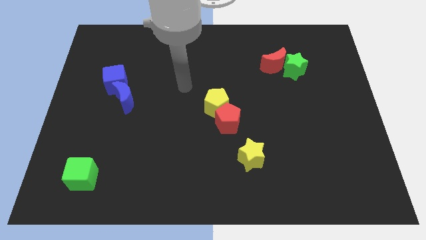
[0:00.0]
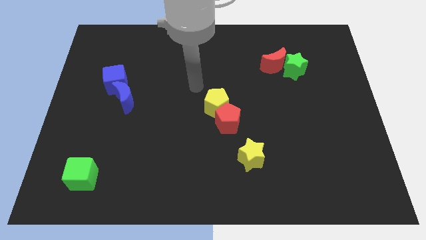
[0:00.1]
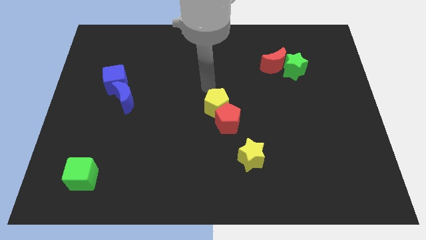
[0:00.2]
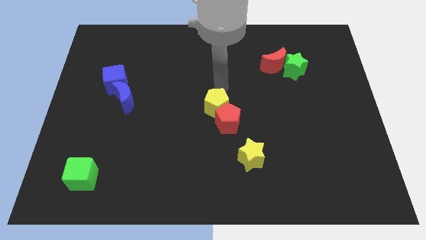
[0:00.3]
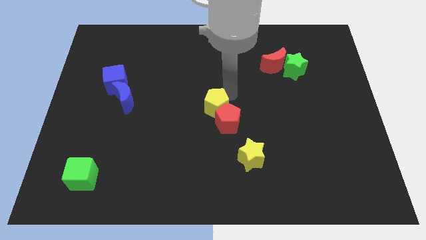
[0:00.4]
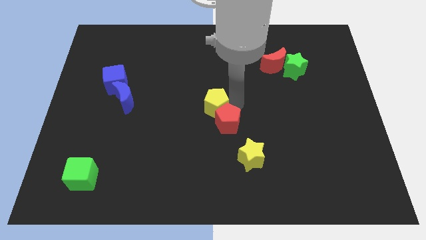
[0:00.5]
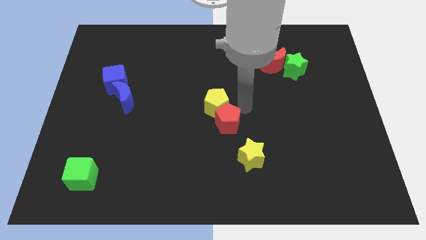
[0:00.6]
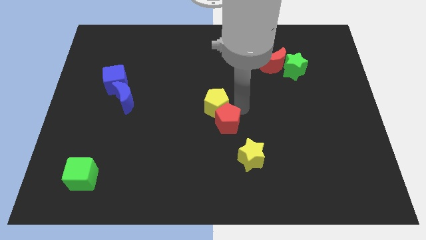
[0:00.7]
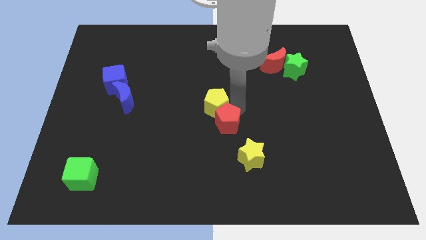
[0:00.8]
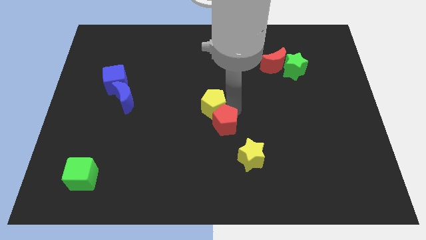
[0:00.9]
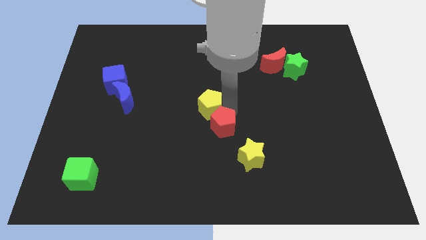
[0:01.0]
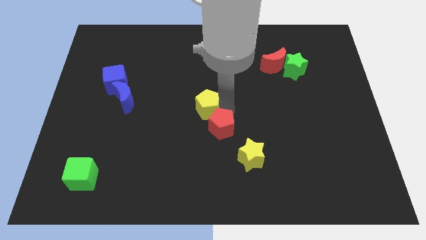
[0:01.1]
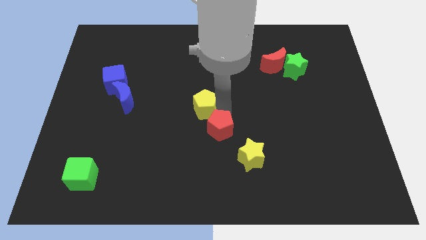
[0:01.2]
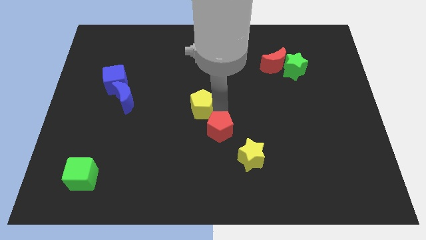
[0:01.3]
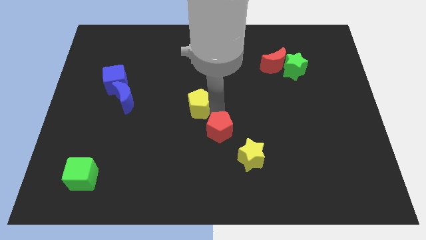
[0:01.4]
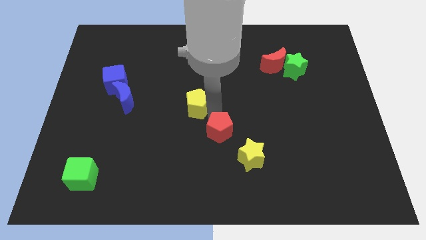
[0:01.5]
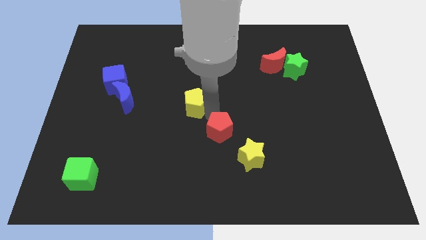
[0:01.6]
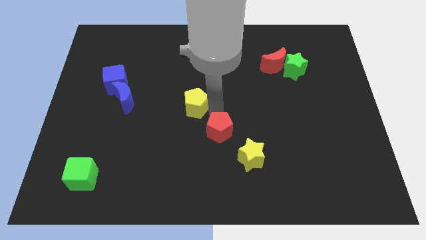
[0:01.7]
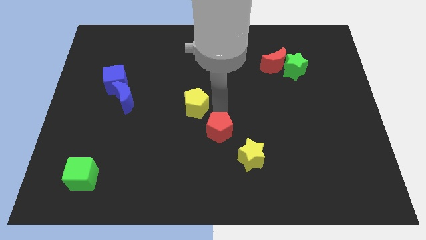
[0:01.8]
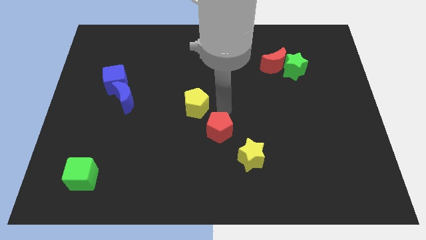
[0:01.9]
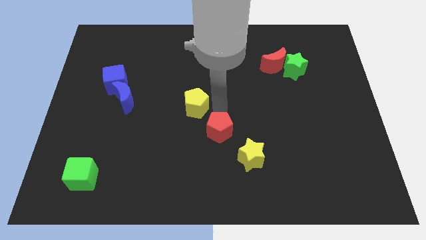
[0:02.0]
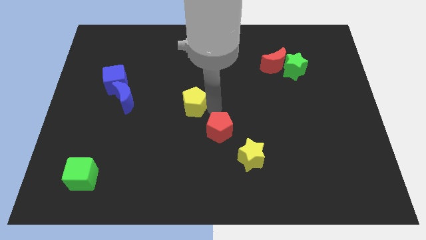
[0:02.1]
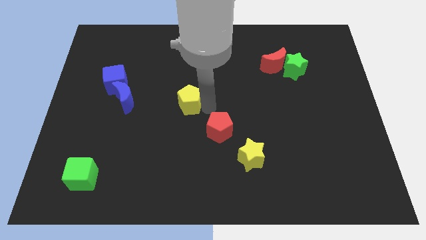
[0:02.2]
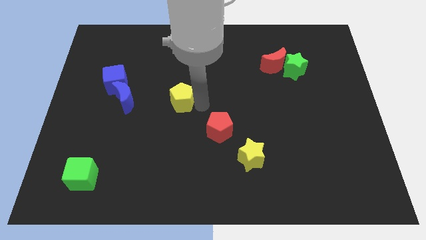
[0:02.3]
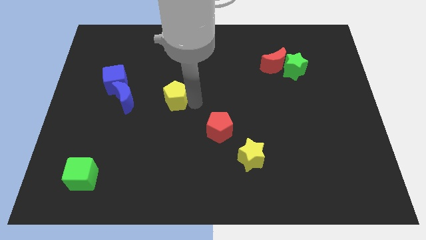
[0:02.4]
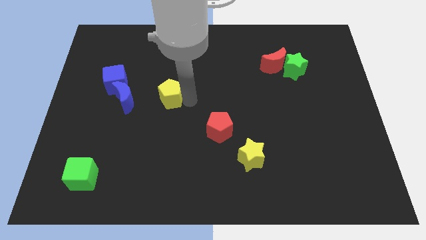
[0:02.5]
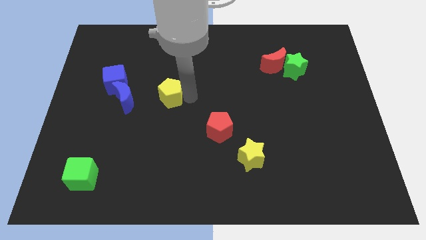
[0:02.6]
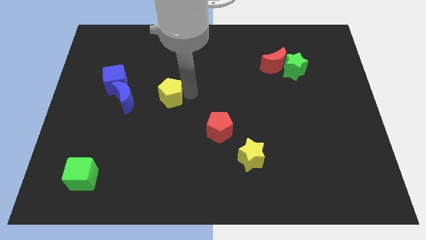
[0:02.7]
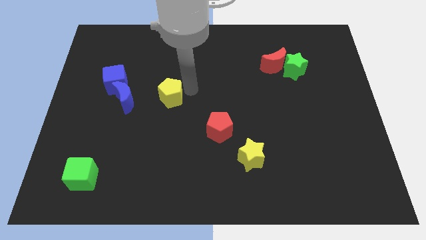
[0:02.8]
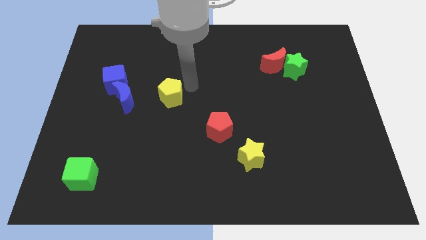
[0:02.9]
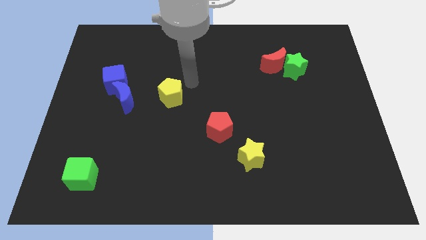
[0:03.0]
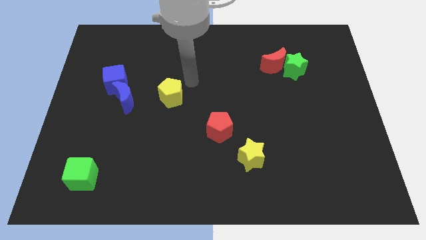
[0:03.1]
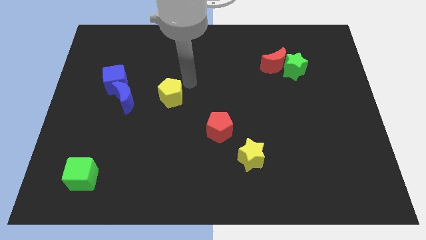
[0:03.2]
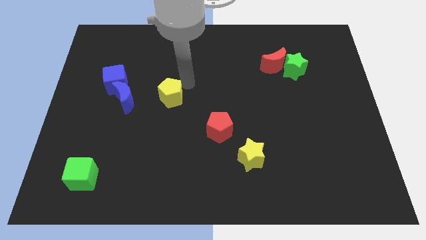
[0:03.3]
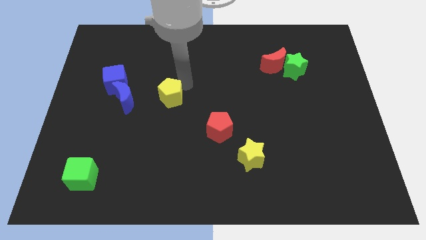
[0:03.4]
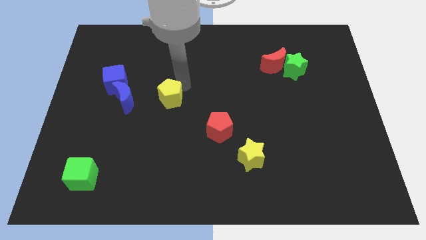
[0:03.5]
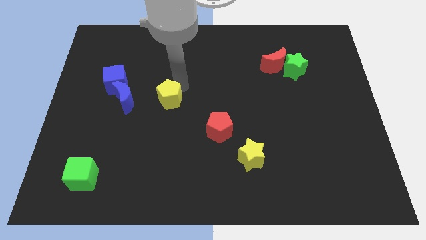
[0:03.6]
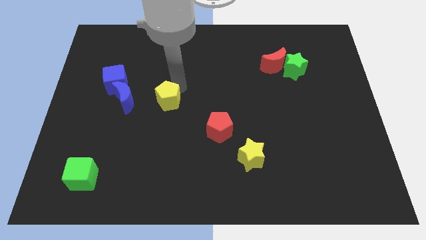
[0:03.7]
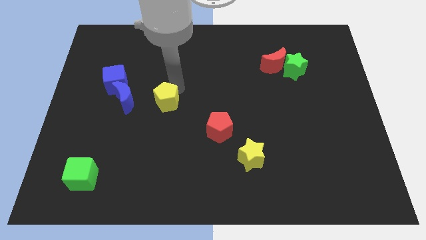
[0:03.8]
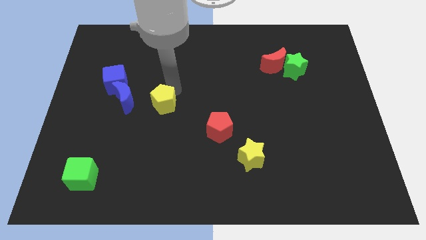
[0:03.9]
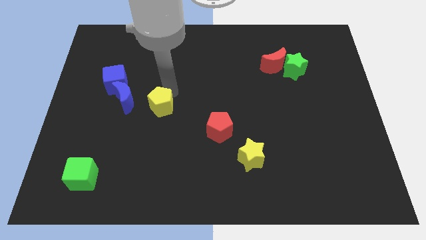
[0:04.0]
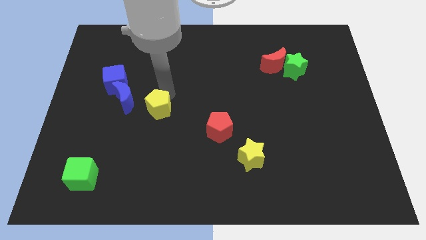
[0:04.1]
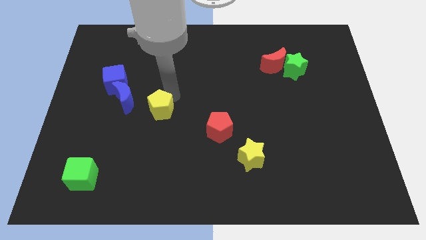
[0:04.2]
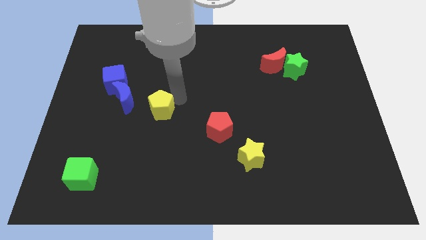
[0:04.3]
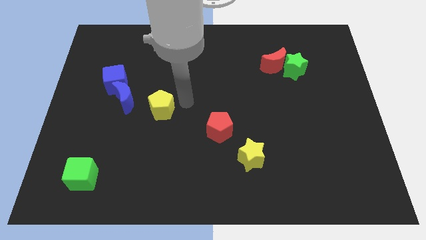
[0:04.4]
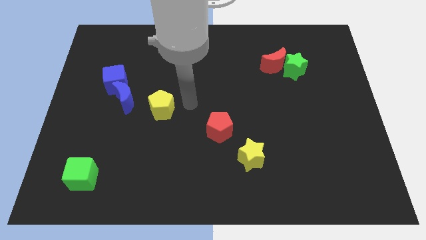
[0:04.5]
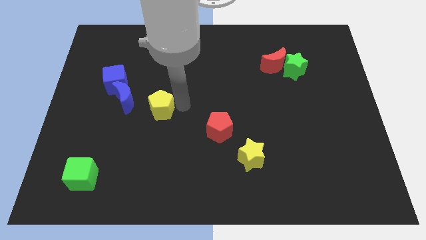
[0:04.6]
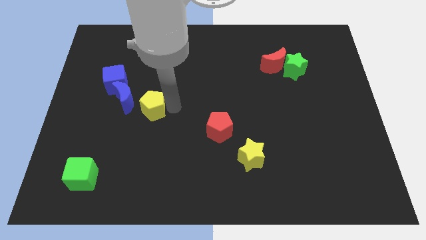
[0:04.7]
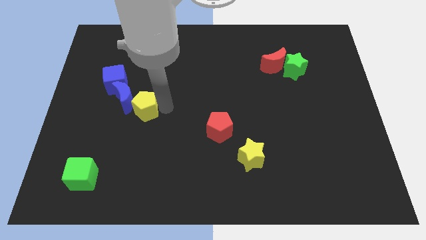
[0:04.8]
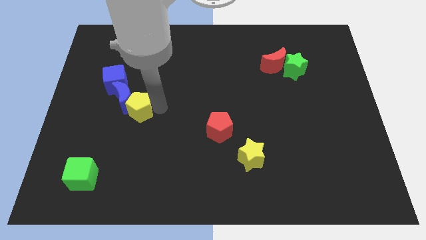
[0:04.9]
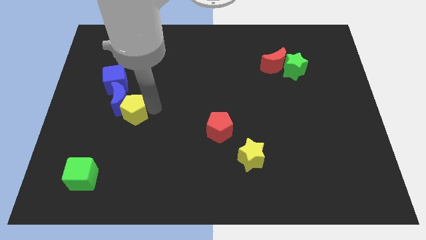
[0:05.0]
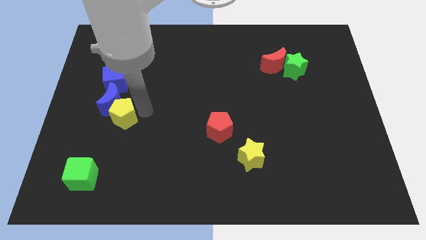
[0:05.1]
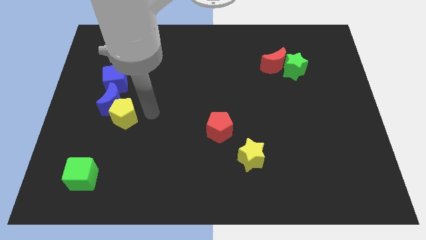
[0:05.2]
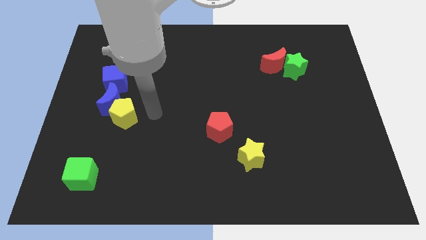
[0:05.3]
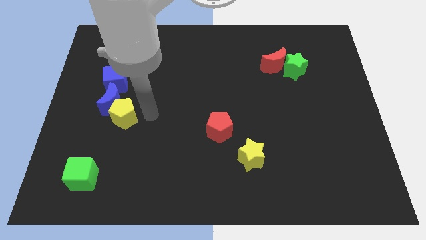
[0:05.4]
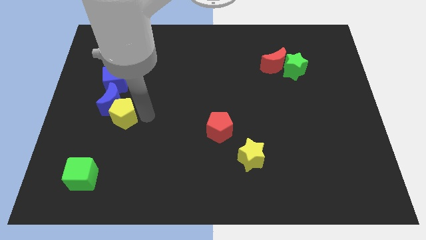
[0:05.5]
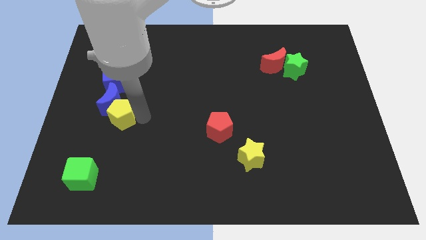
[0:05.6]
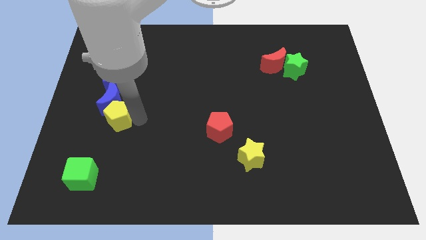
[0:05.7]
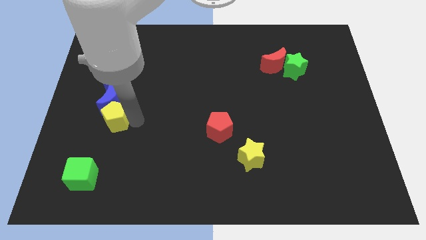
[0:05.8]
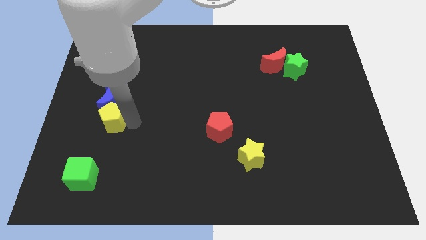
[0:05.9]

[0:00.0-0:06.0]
put the yellow pentagon to the bottom left side of the blue moon

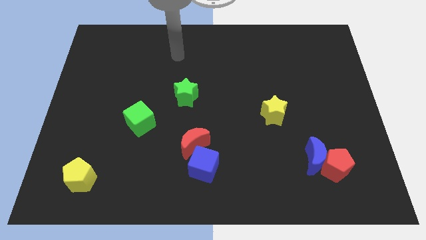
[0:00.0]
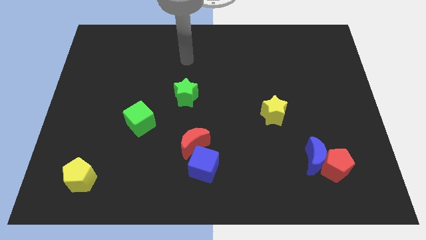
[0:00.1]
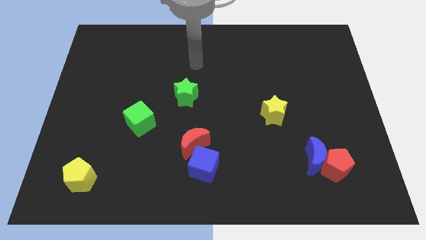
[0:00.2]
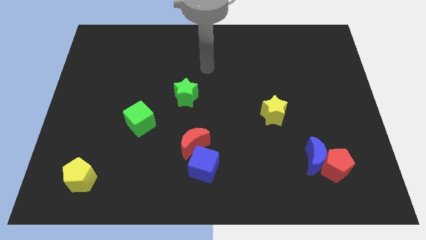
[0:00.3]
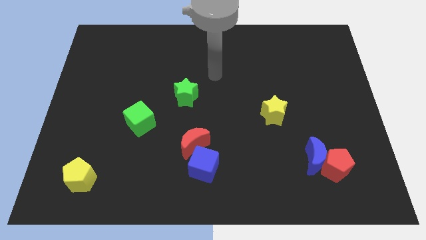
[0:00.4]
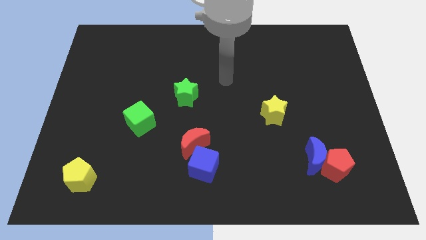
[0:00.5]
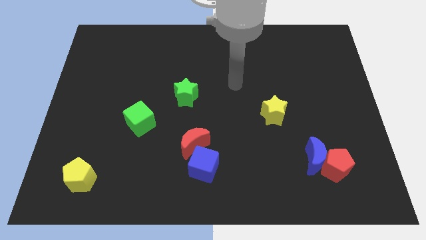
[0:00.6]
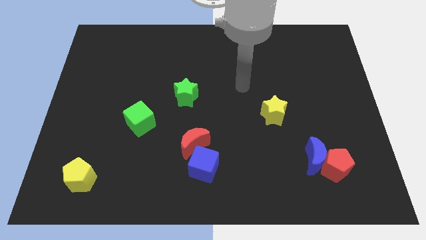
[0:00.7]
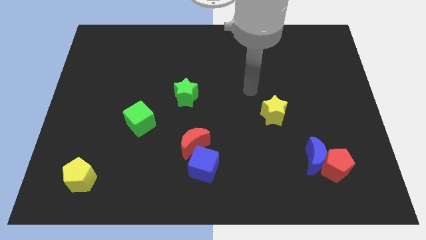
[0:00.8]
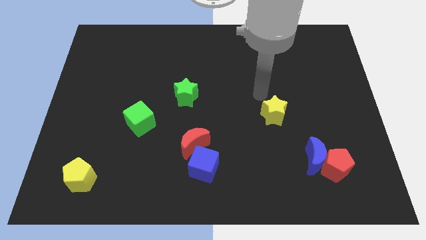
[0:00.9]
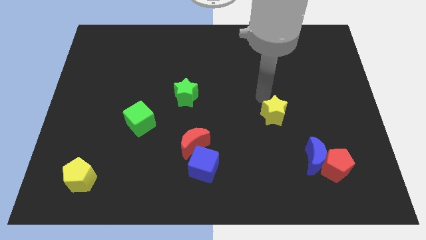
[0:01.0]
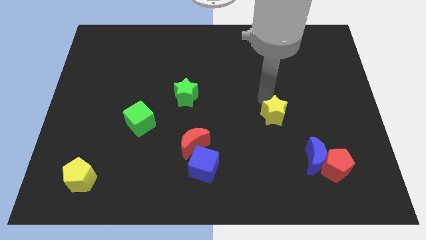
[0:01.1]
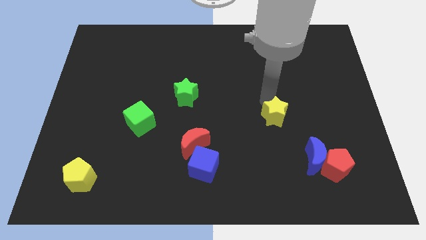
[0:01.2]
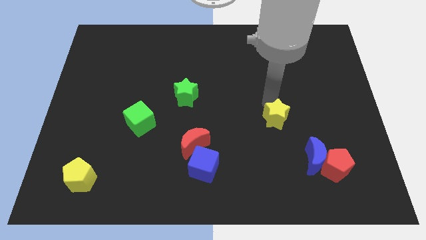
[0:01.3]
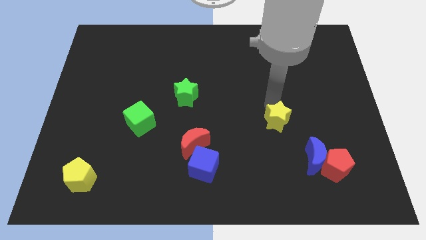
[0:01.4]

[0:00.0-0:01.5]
push the yellow star to the top left side of the blue moon
